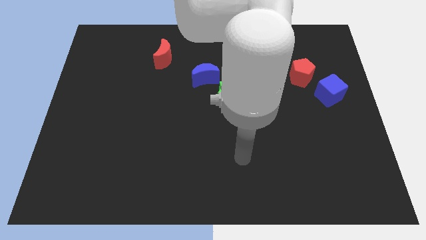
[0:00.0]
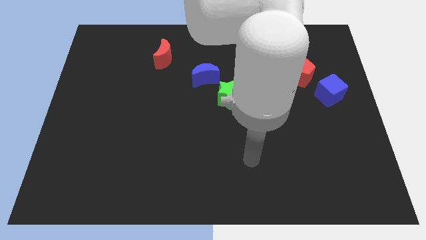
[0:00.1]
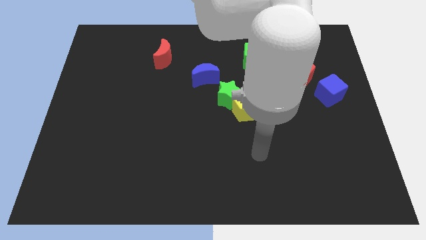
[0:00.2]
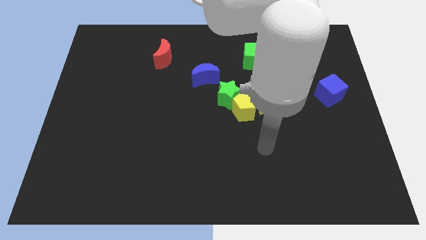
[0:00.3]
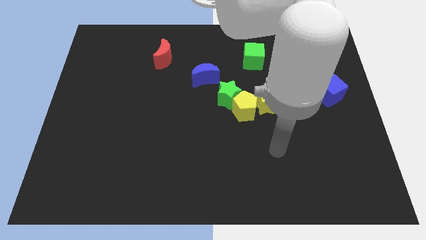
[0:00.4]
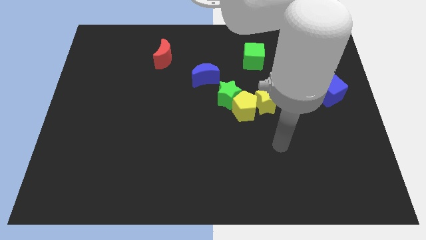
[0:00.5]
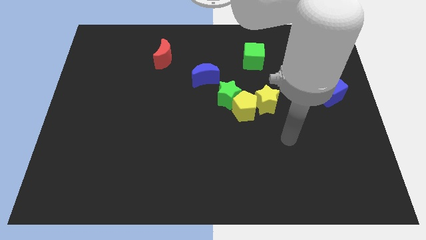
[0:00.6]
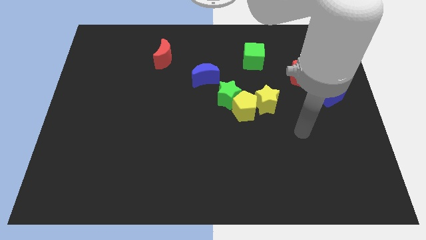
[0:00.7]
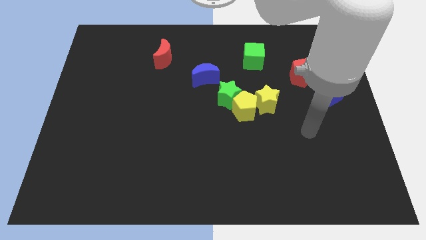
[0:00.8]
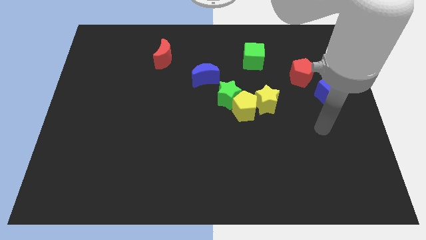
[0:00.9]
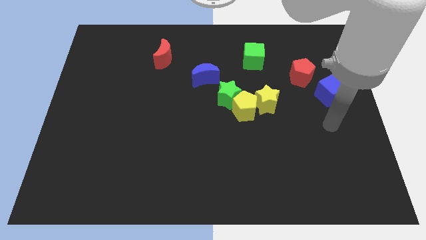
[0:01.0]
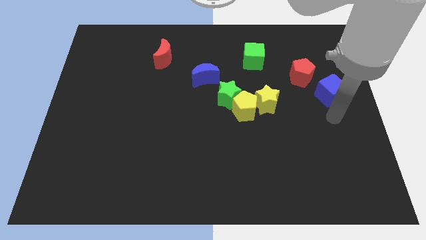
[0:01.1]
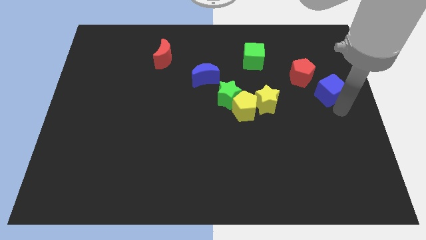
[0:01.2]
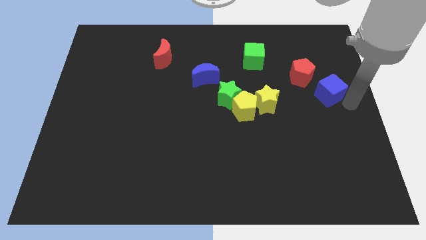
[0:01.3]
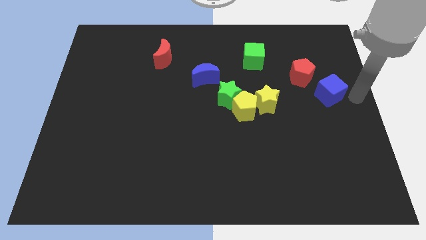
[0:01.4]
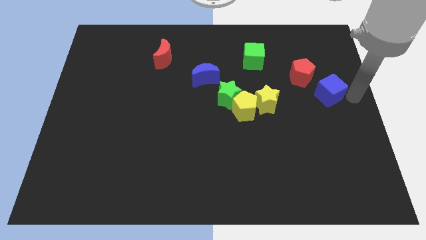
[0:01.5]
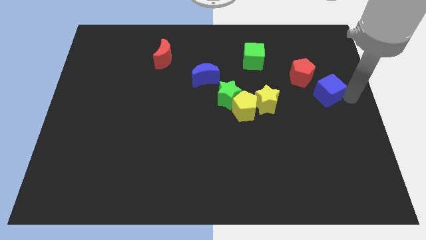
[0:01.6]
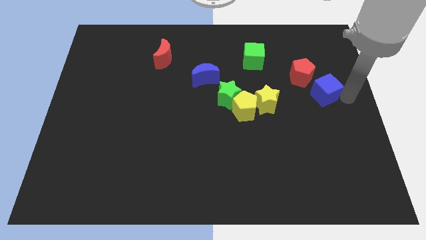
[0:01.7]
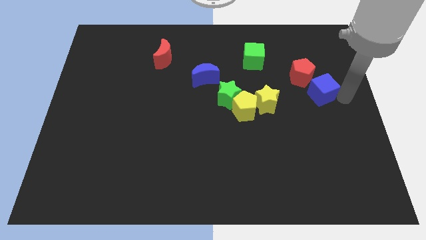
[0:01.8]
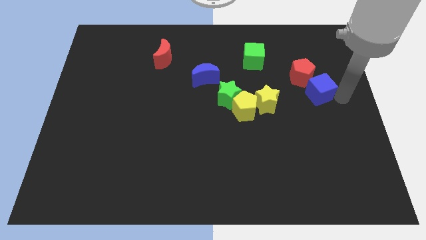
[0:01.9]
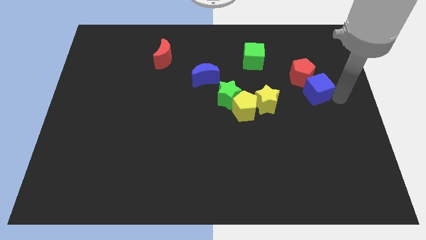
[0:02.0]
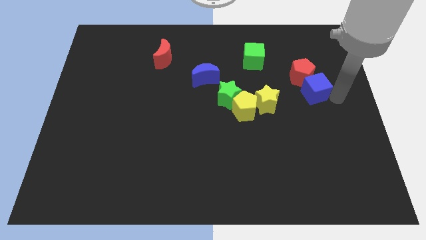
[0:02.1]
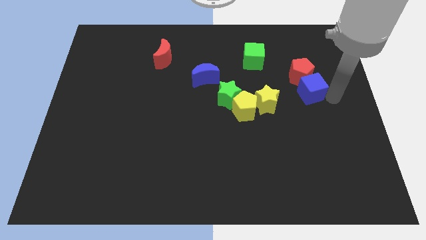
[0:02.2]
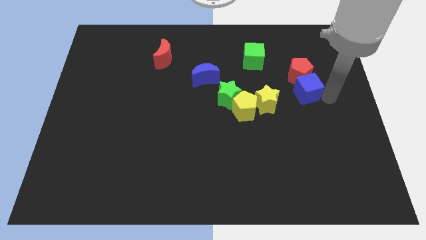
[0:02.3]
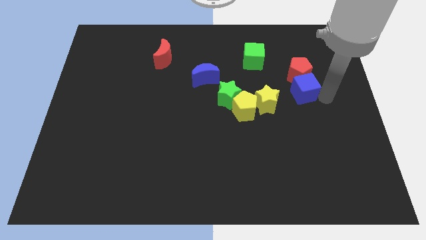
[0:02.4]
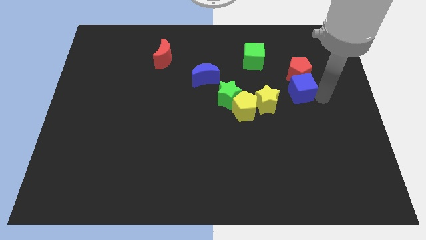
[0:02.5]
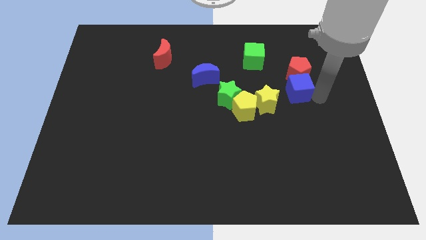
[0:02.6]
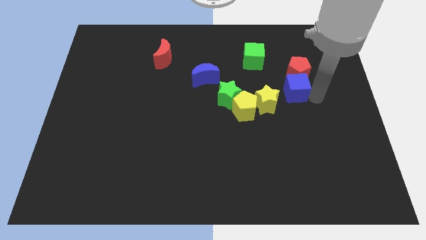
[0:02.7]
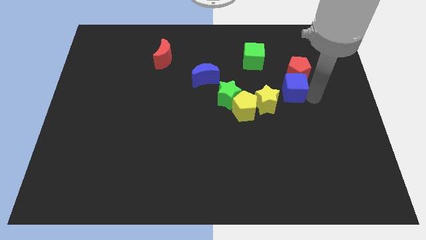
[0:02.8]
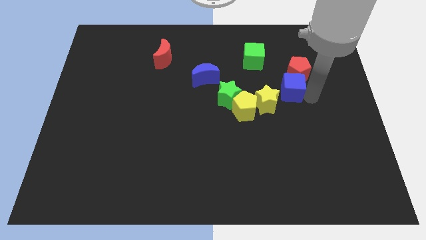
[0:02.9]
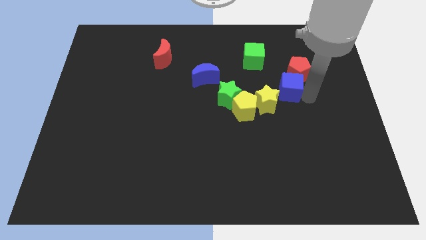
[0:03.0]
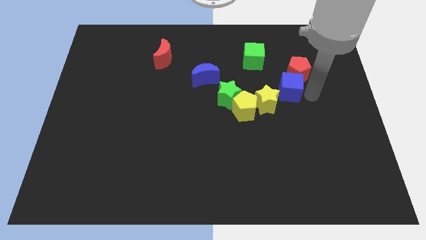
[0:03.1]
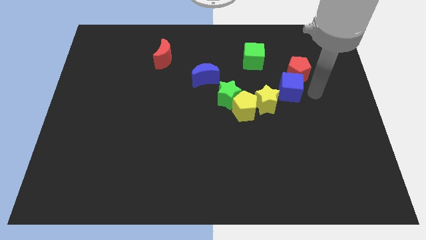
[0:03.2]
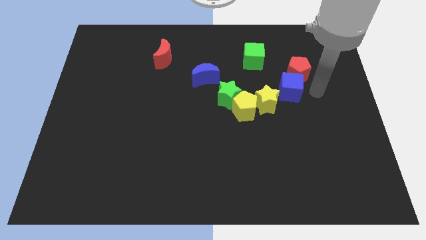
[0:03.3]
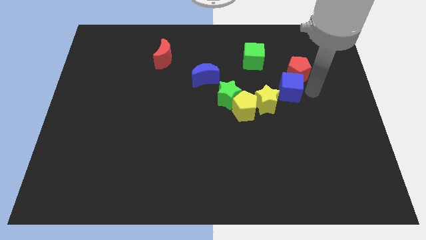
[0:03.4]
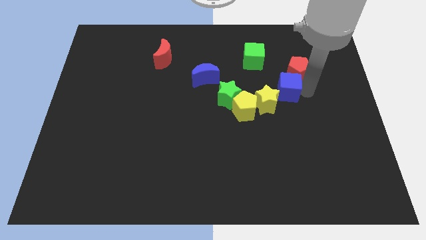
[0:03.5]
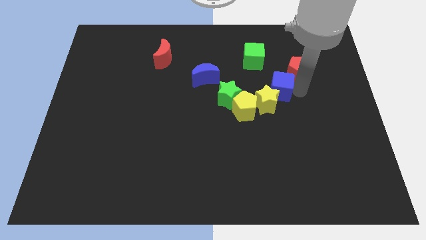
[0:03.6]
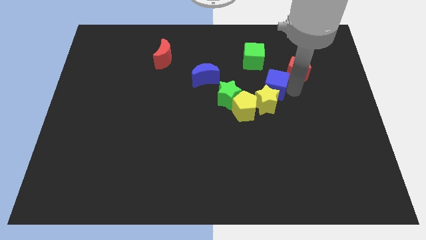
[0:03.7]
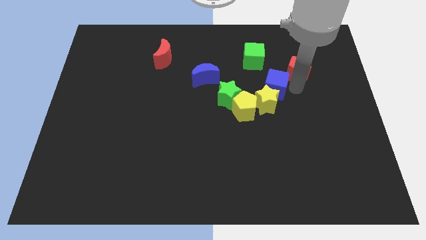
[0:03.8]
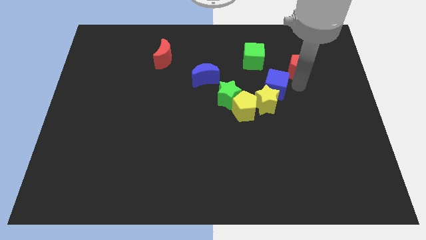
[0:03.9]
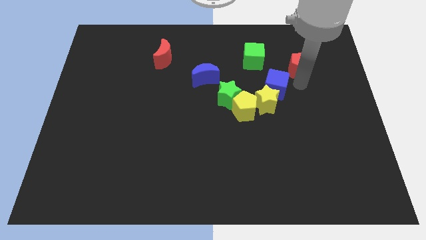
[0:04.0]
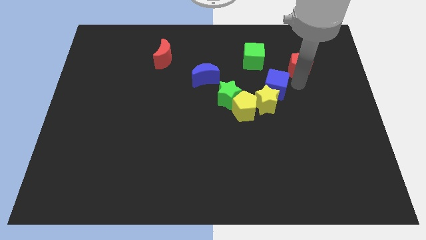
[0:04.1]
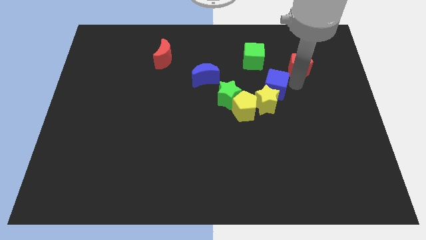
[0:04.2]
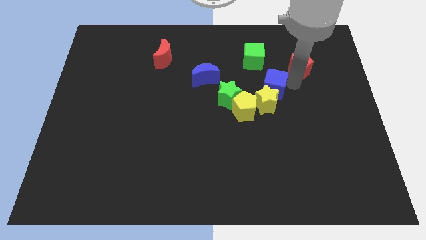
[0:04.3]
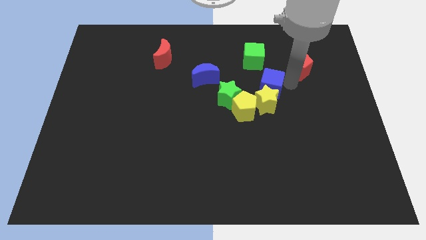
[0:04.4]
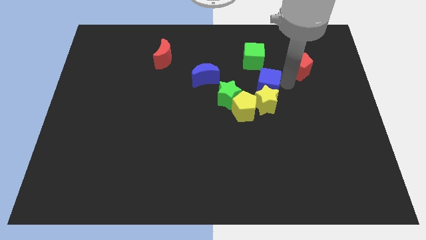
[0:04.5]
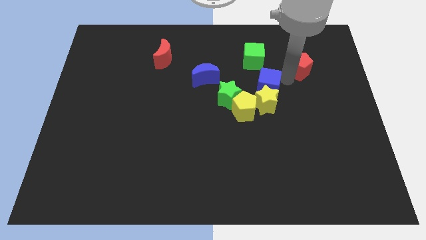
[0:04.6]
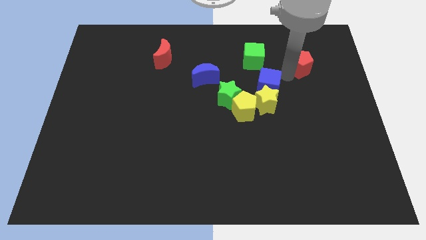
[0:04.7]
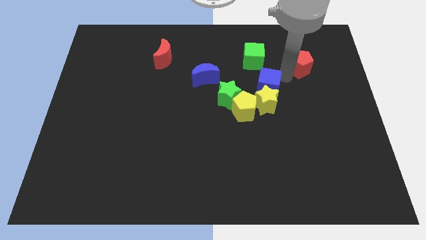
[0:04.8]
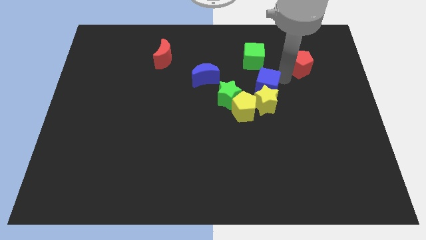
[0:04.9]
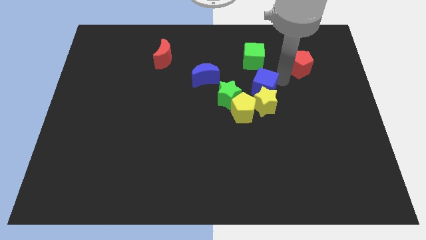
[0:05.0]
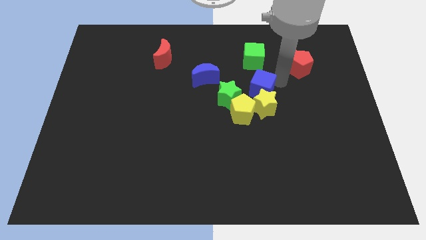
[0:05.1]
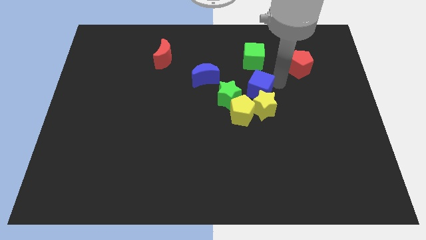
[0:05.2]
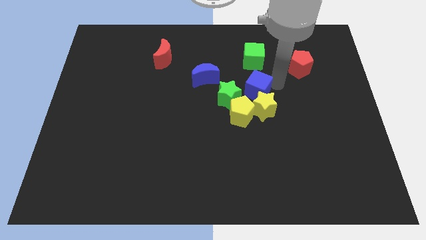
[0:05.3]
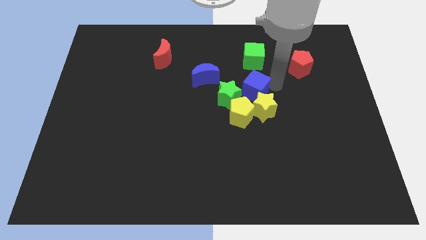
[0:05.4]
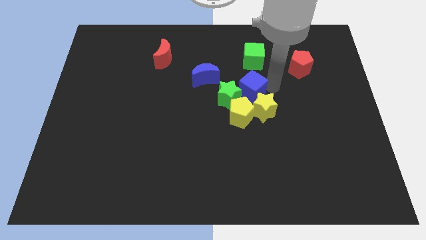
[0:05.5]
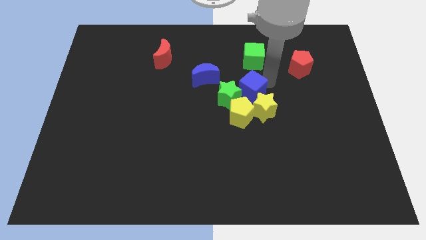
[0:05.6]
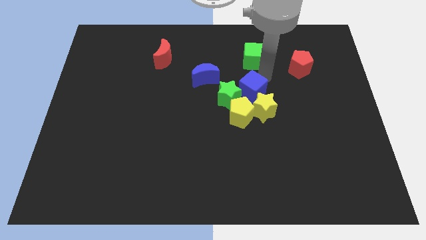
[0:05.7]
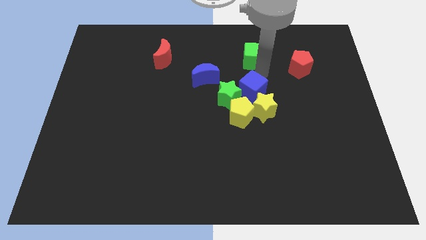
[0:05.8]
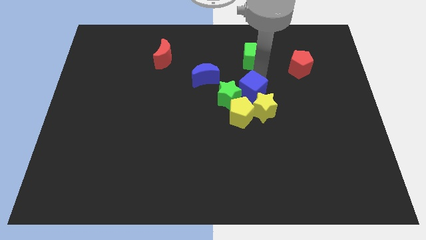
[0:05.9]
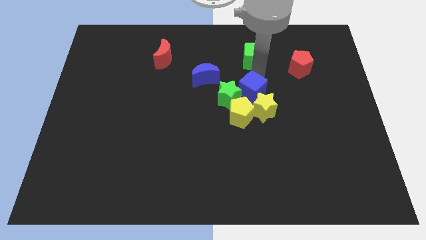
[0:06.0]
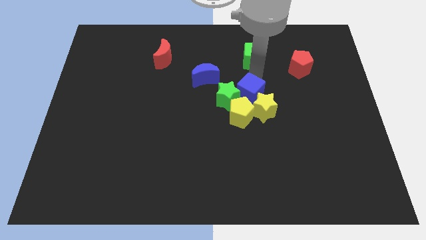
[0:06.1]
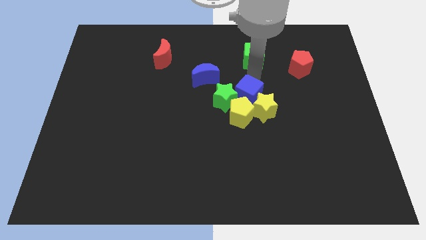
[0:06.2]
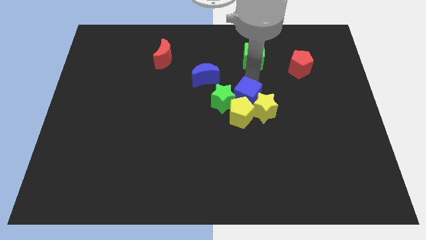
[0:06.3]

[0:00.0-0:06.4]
slide the blue cube next to the yellow pentagon

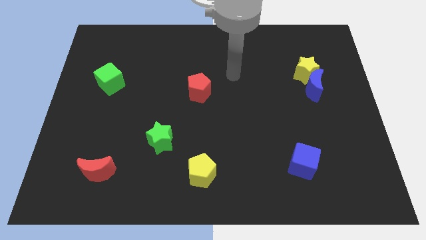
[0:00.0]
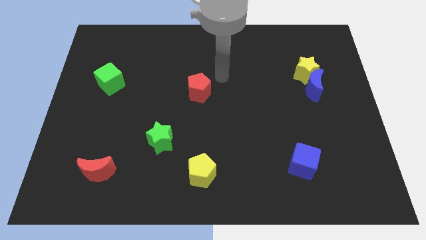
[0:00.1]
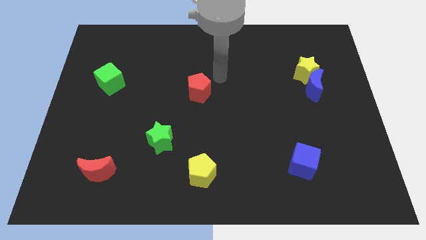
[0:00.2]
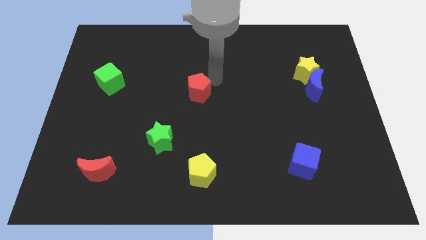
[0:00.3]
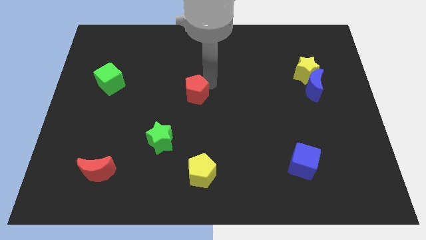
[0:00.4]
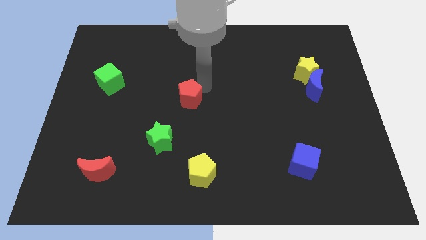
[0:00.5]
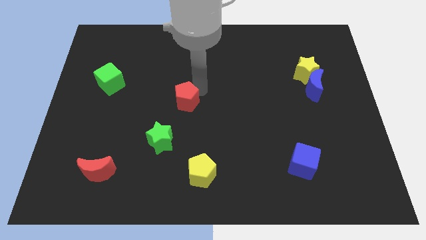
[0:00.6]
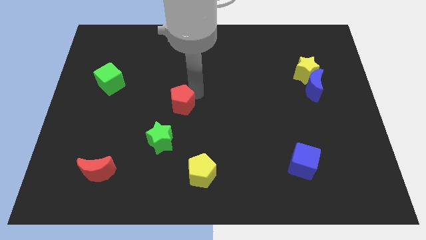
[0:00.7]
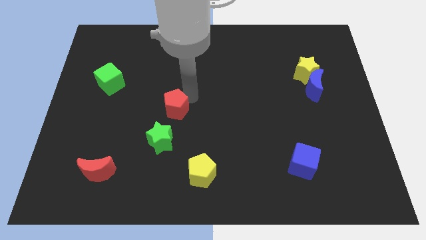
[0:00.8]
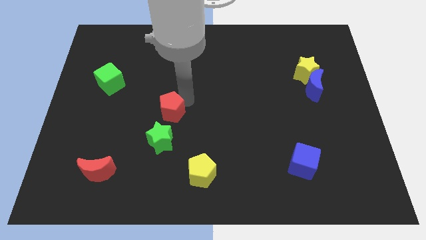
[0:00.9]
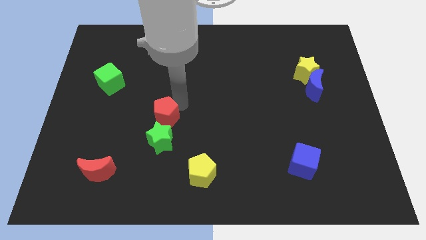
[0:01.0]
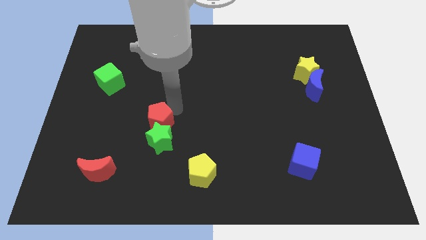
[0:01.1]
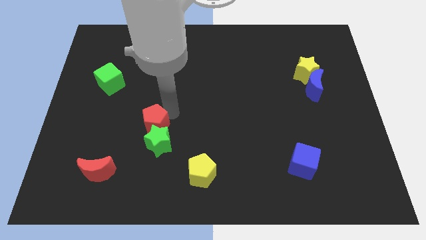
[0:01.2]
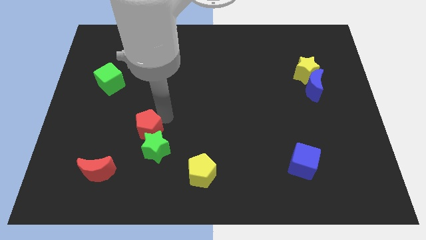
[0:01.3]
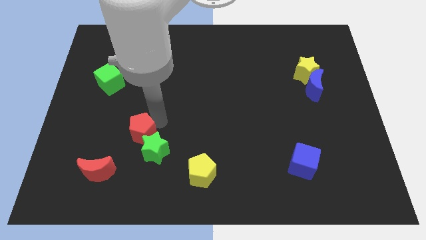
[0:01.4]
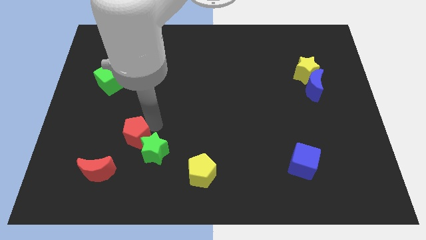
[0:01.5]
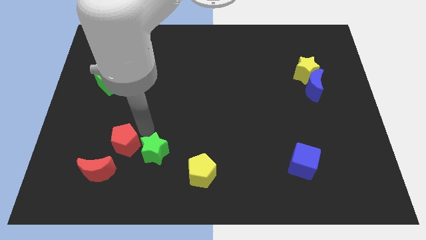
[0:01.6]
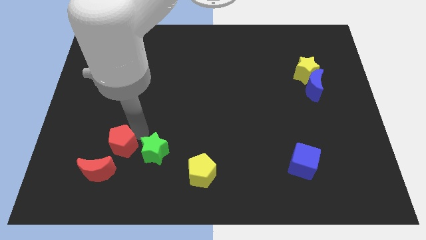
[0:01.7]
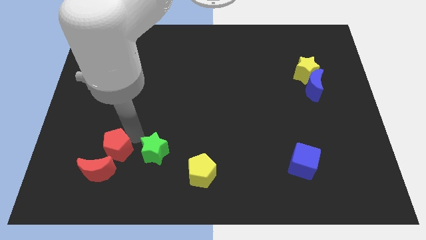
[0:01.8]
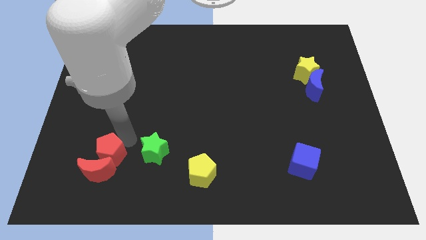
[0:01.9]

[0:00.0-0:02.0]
push the red pentagon towards the red moon

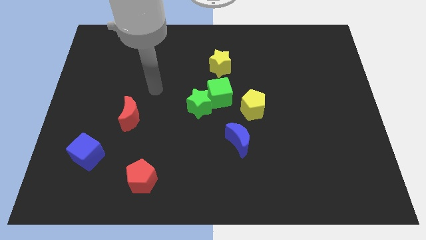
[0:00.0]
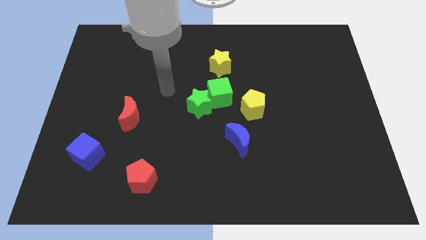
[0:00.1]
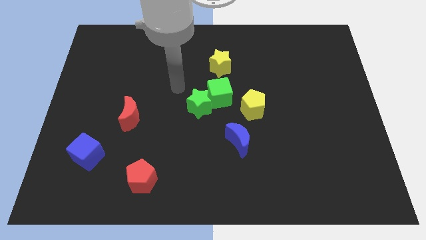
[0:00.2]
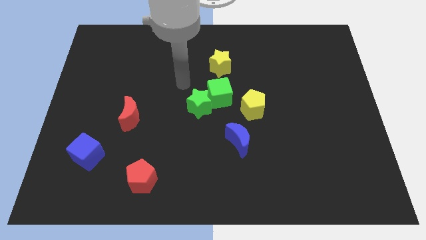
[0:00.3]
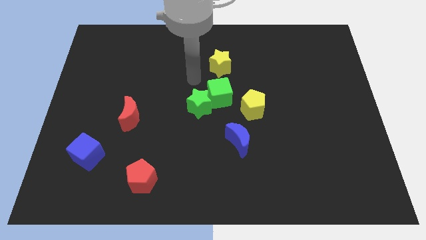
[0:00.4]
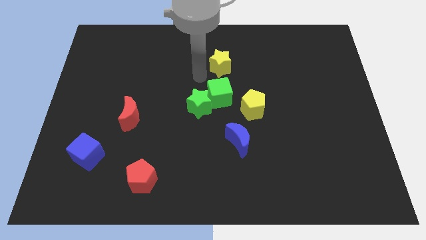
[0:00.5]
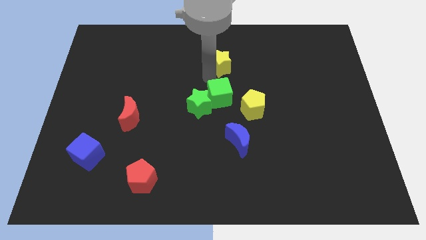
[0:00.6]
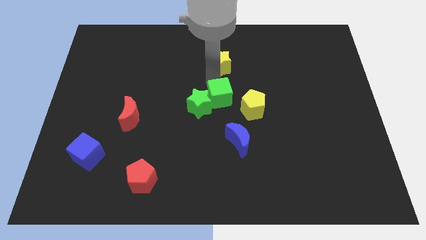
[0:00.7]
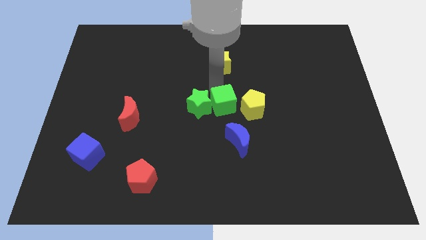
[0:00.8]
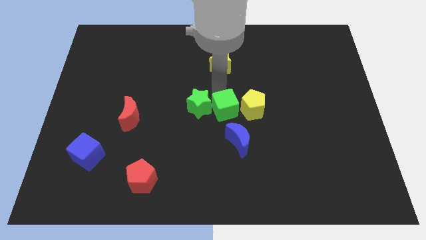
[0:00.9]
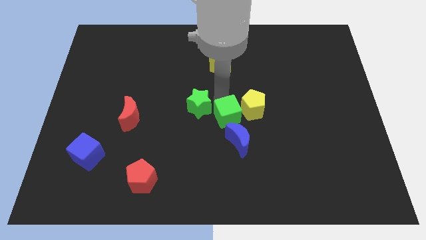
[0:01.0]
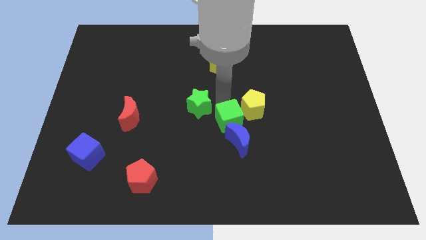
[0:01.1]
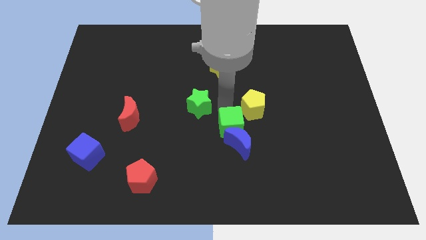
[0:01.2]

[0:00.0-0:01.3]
move the green cube to the blue moon
